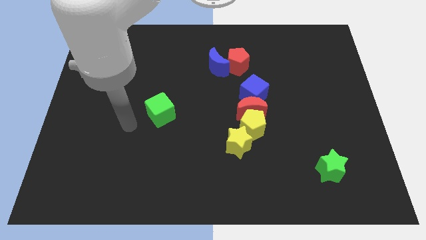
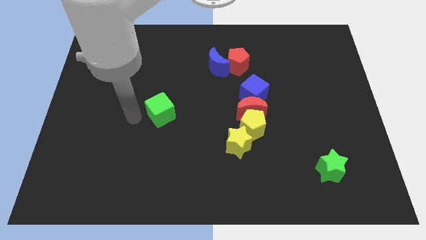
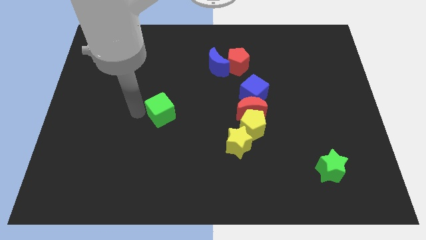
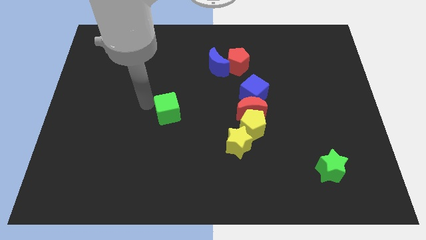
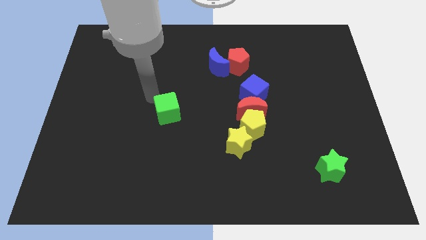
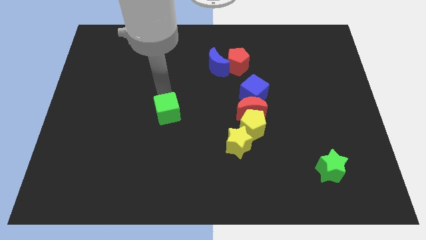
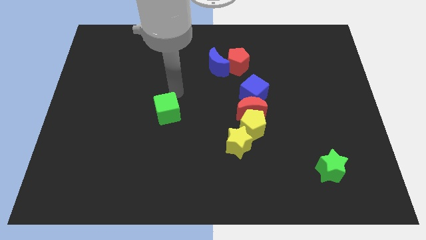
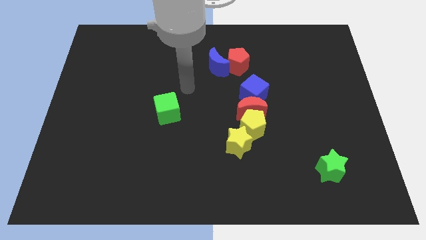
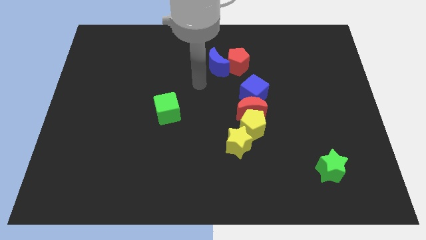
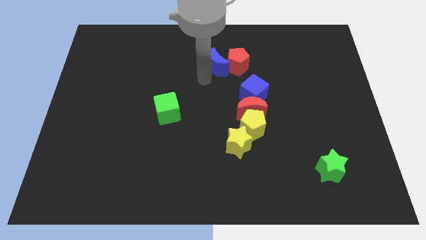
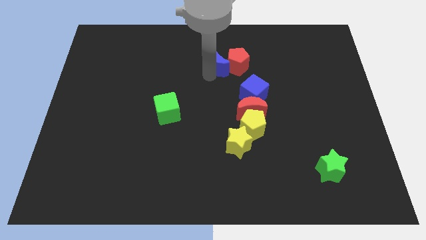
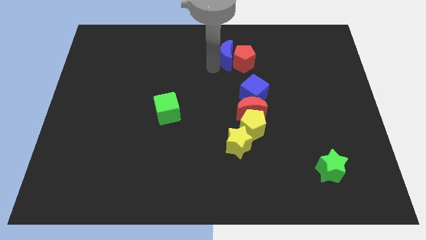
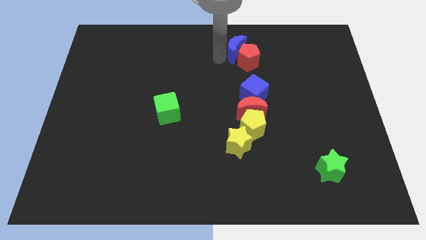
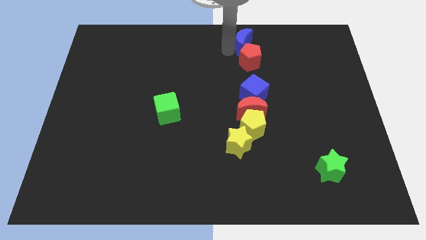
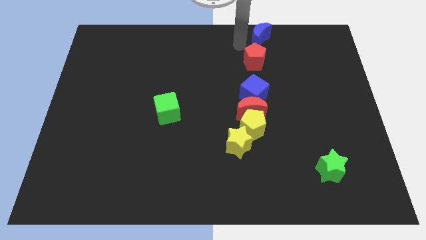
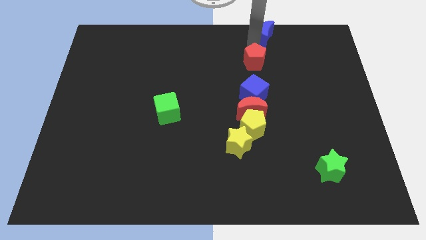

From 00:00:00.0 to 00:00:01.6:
move the red pentagon away from the blue moon

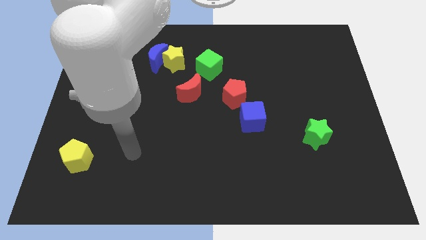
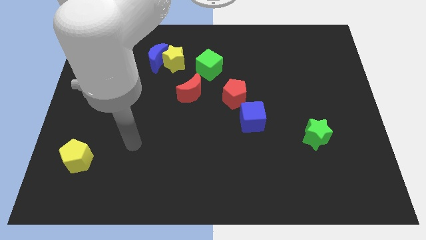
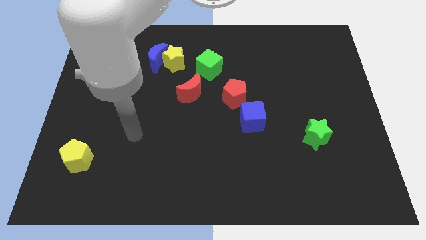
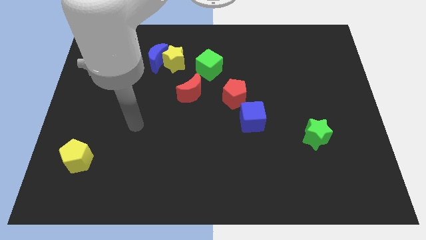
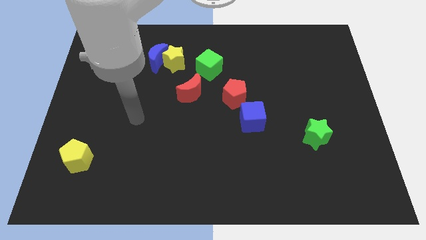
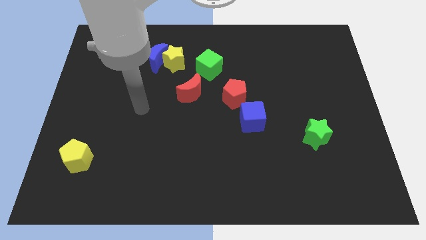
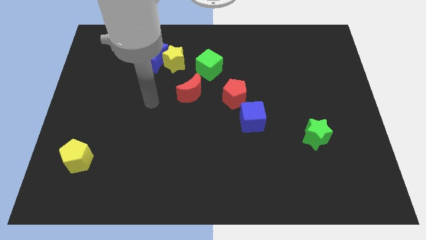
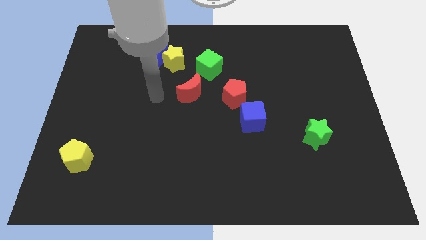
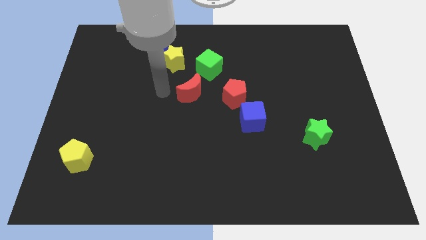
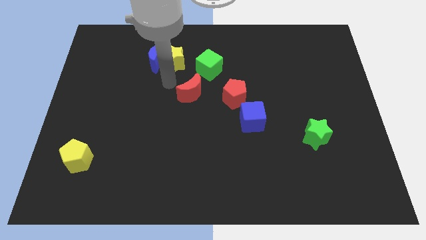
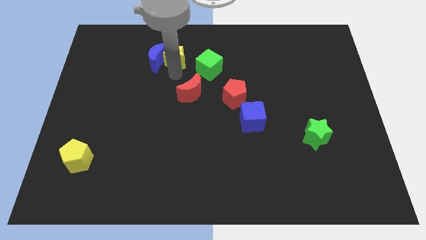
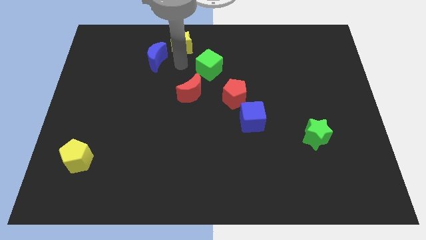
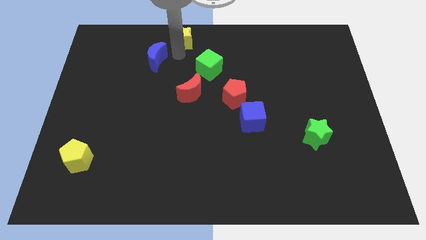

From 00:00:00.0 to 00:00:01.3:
move the blue moon away from the yellow star

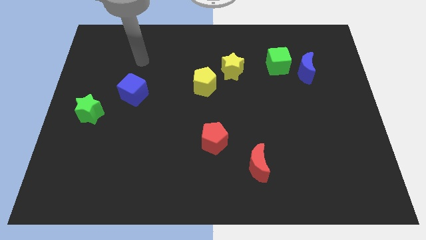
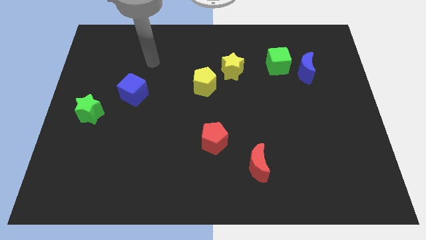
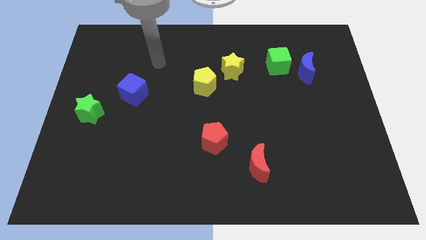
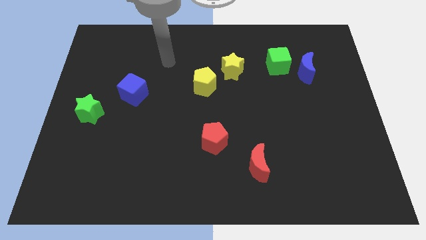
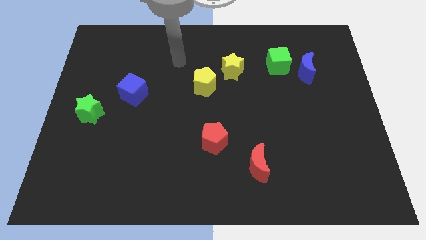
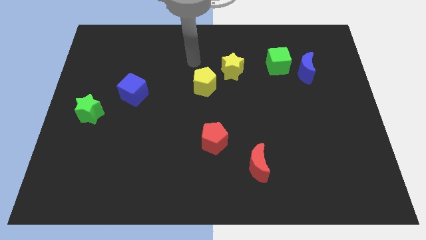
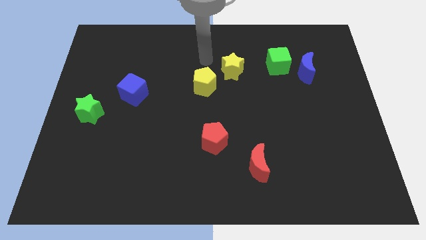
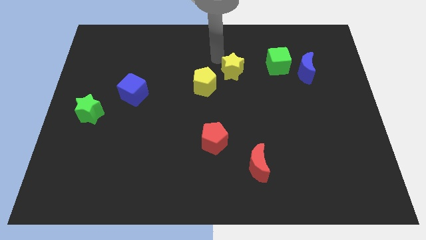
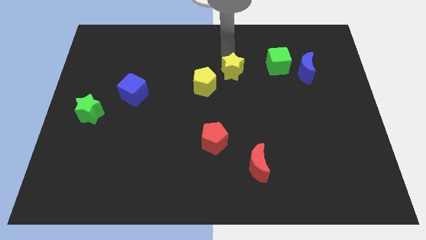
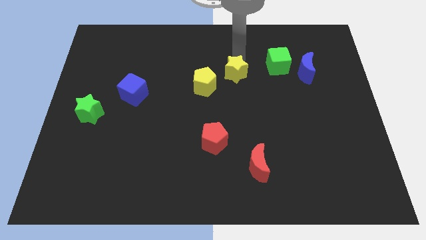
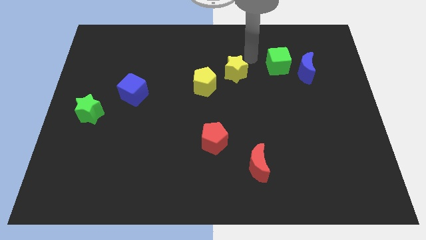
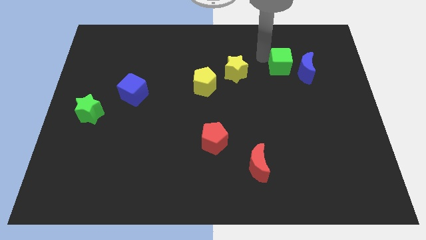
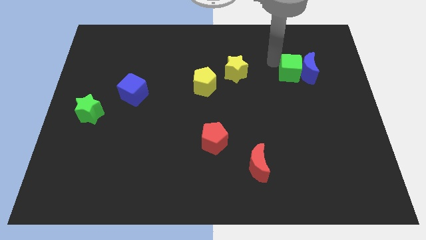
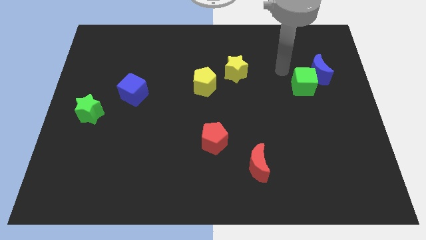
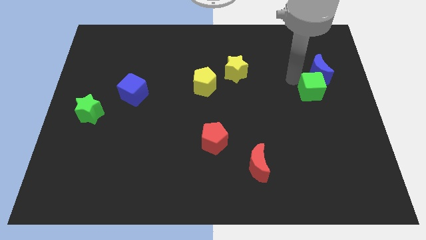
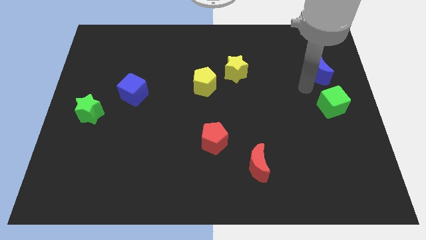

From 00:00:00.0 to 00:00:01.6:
separate the blue moon from the green cube

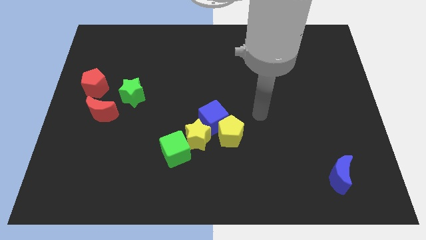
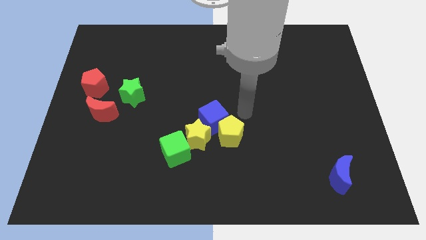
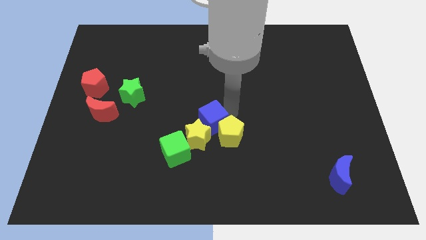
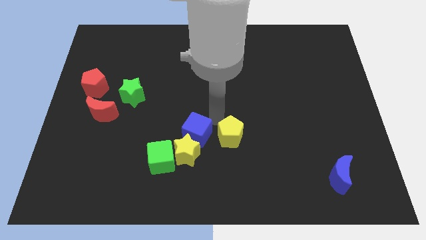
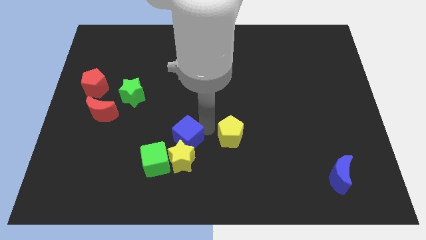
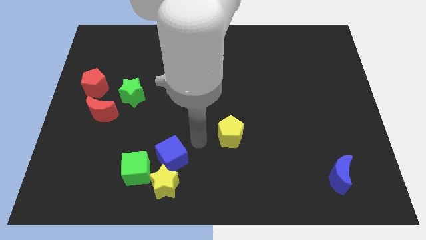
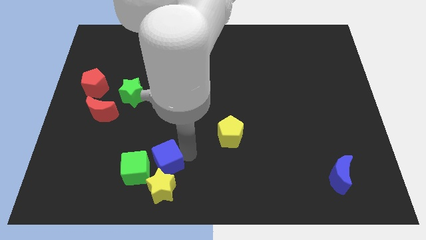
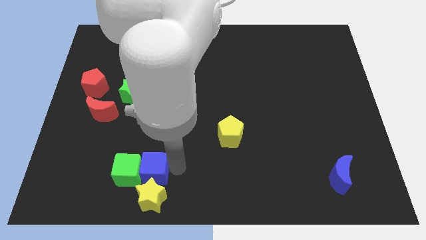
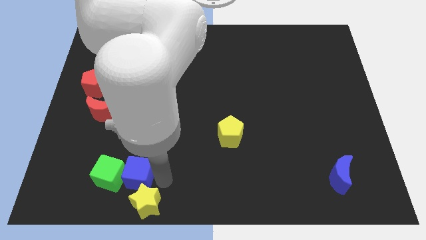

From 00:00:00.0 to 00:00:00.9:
pull the green cube apart from the yellow star

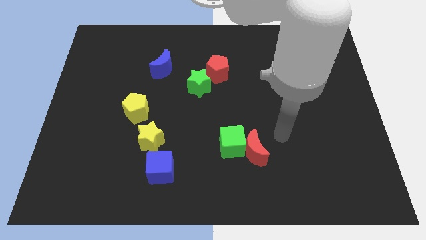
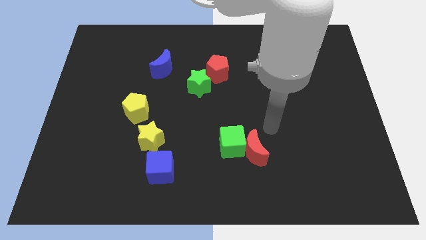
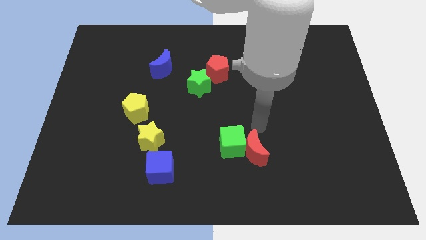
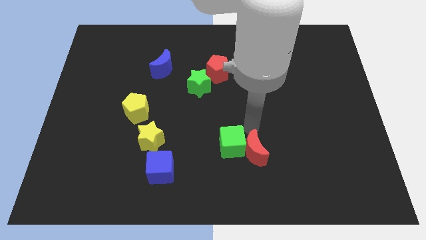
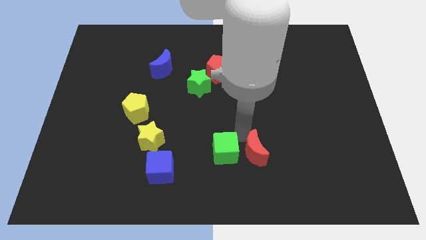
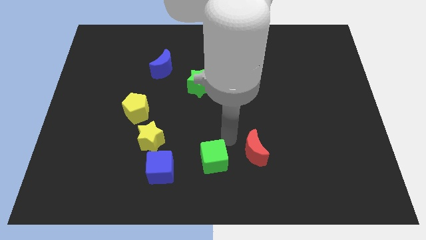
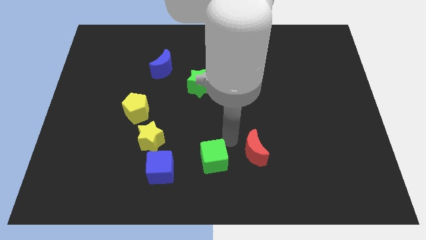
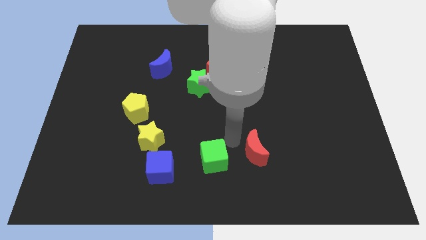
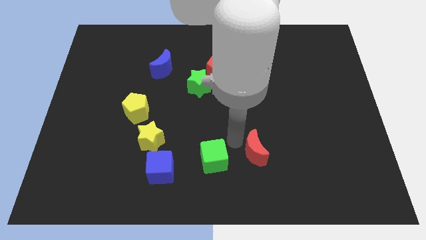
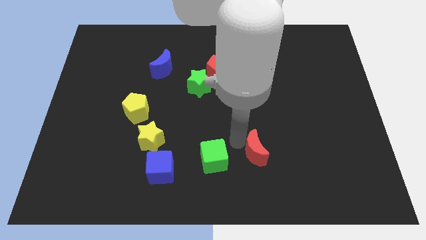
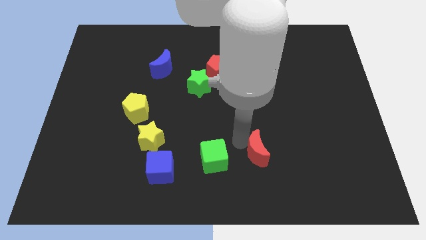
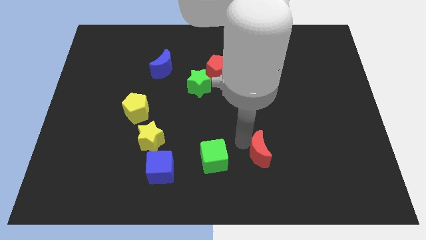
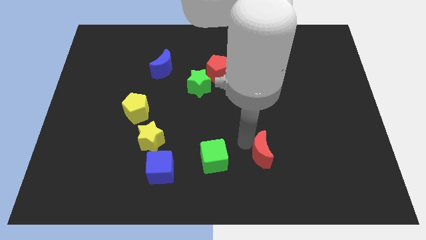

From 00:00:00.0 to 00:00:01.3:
move the red moon away from the green cube

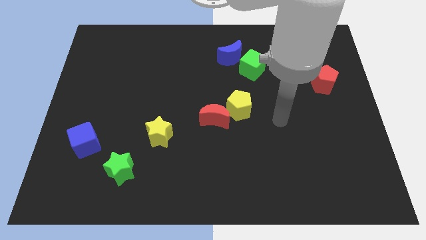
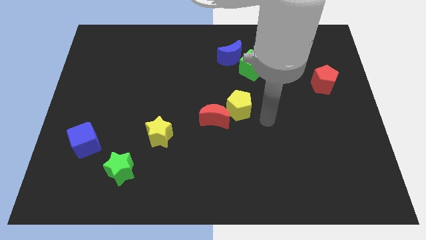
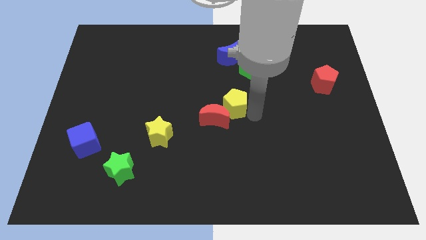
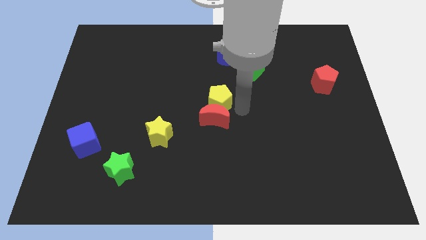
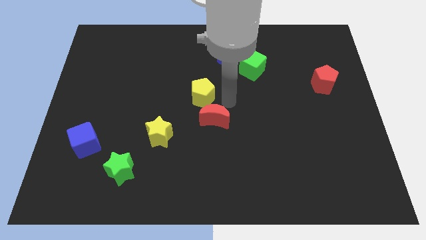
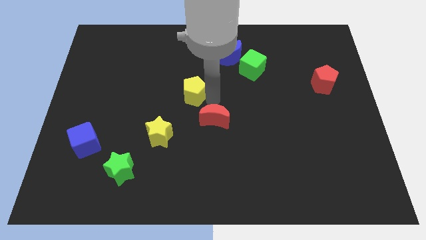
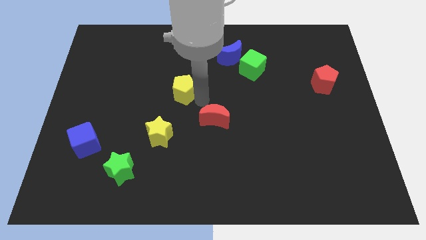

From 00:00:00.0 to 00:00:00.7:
pull the red moon apart from the yellow pentagon

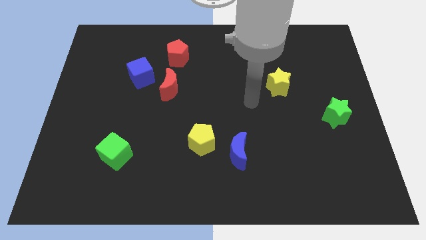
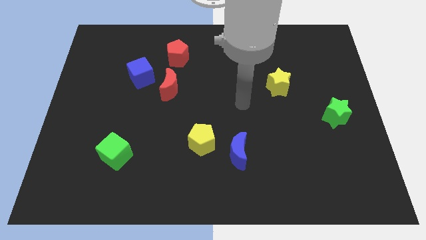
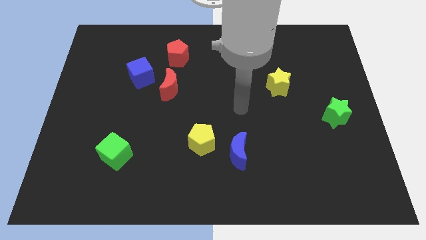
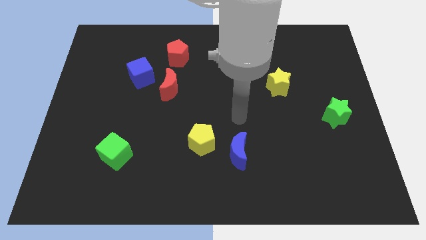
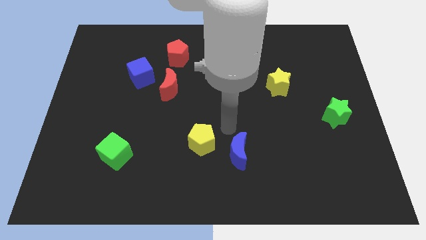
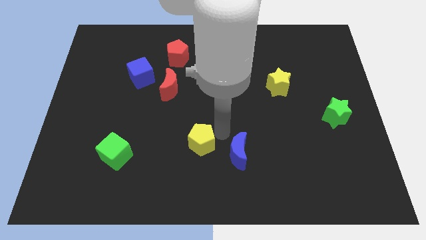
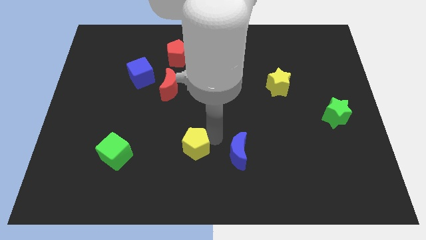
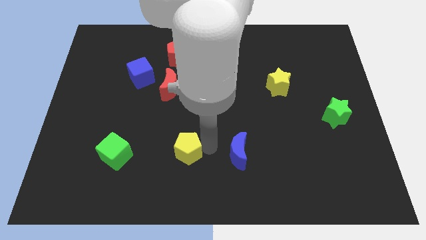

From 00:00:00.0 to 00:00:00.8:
pull the blue moon apart from the yellow pentagon

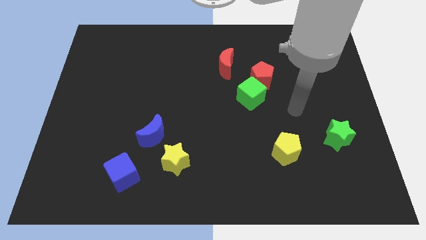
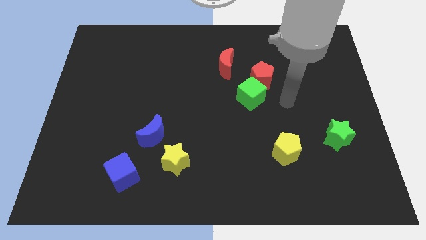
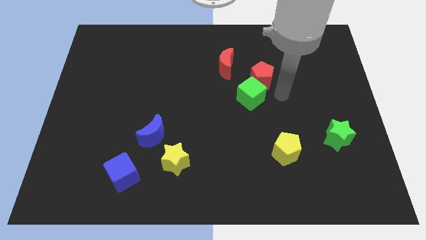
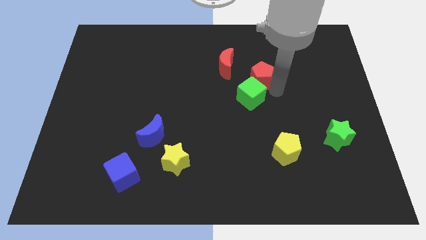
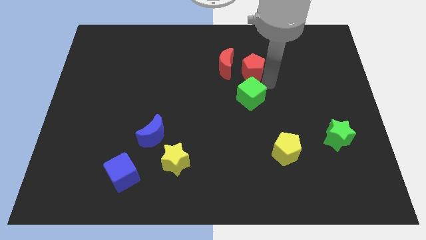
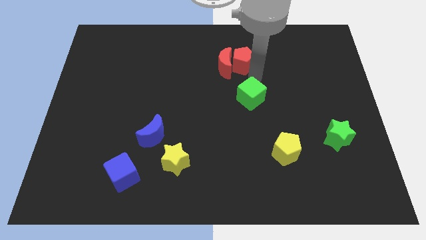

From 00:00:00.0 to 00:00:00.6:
separate the green cube from the red pentagon

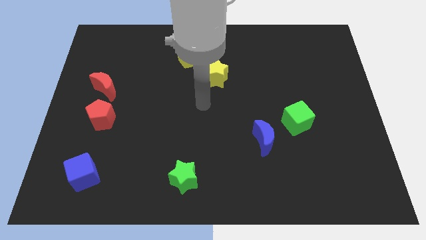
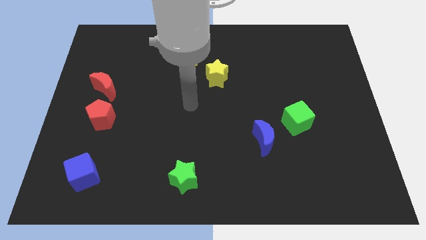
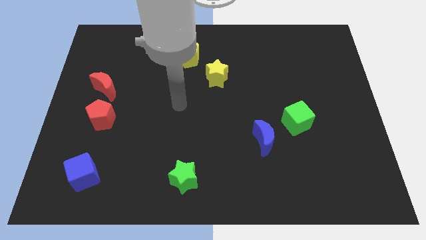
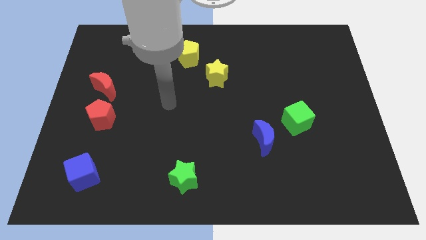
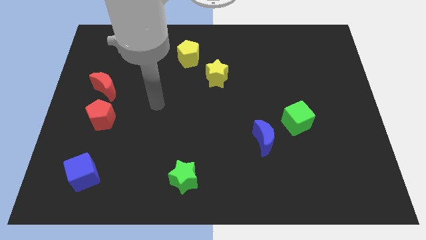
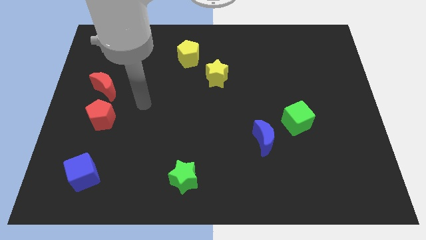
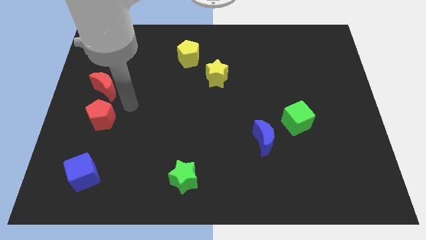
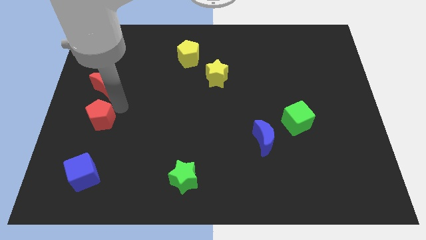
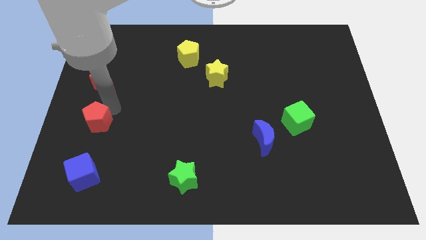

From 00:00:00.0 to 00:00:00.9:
pull the red moon apart from the red pentagon
